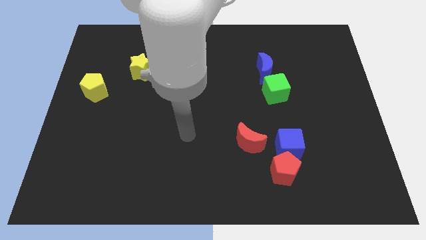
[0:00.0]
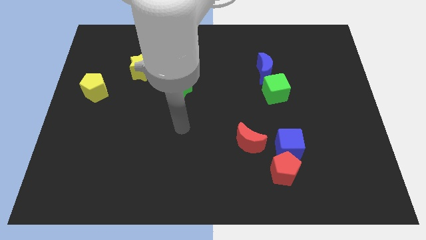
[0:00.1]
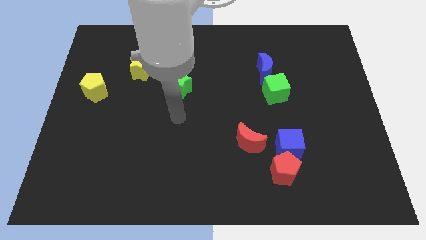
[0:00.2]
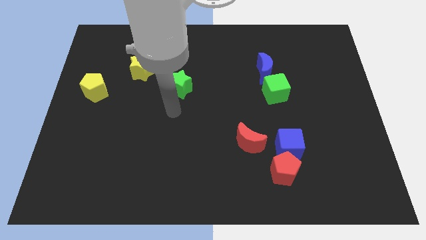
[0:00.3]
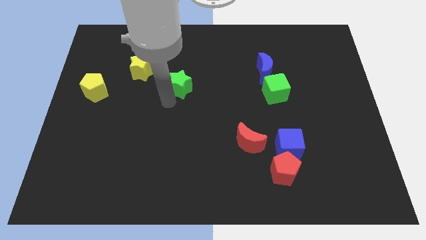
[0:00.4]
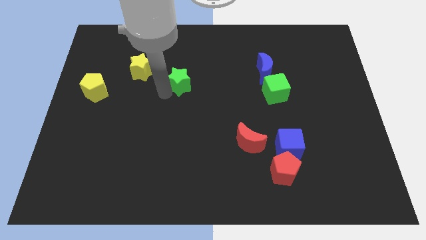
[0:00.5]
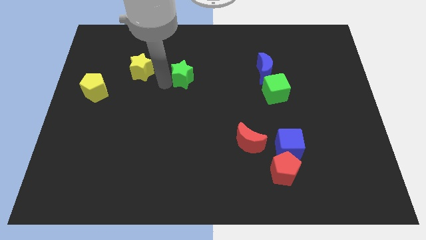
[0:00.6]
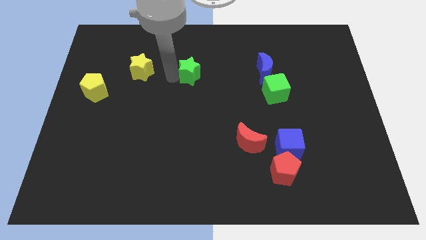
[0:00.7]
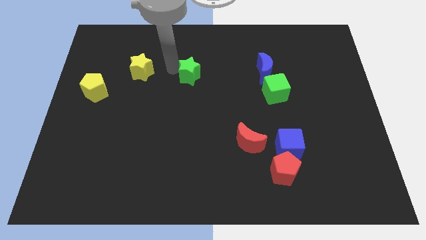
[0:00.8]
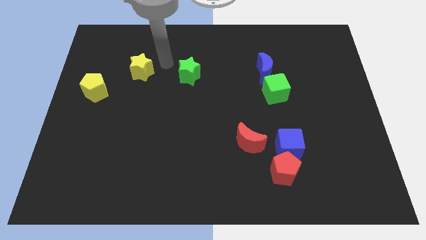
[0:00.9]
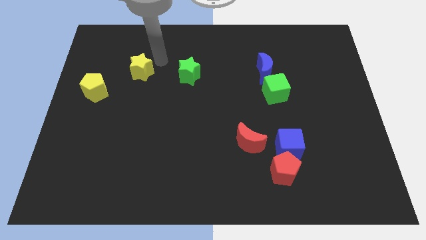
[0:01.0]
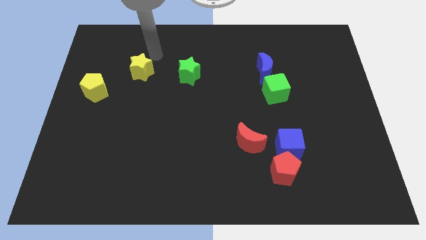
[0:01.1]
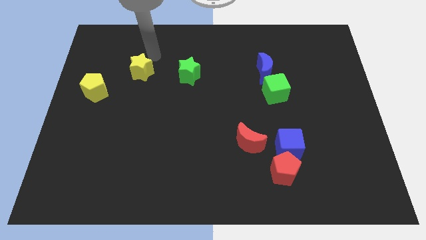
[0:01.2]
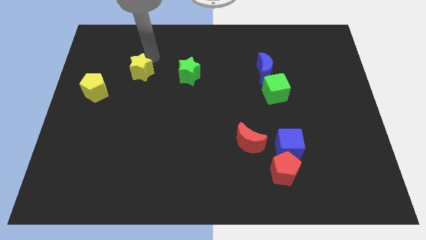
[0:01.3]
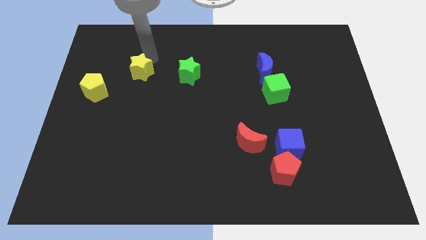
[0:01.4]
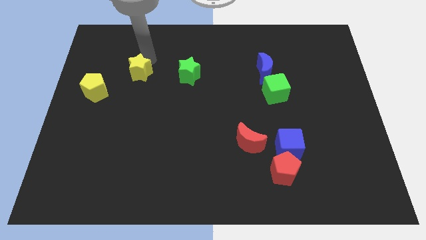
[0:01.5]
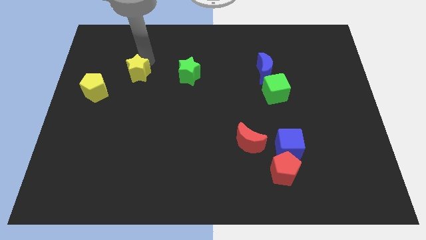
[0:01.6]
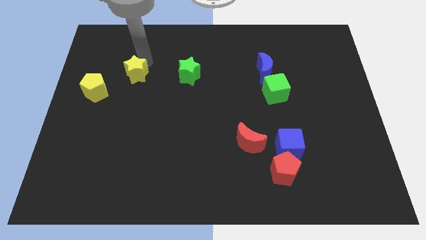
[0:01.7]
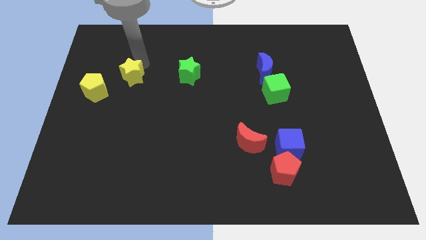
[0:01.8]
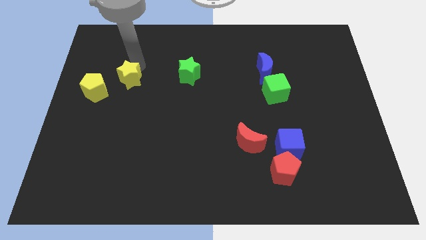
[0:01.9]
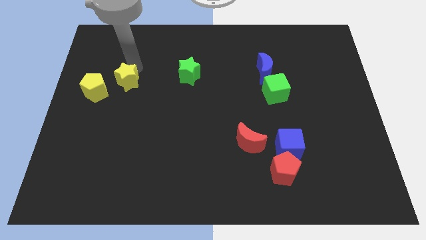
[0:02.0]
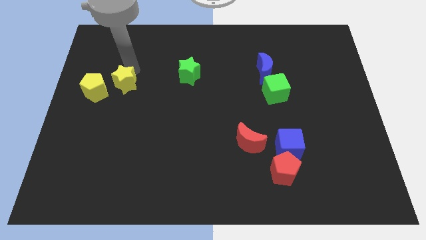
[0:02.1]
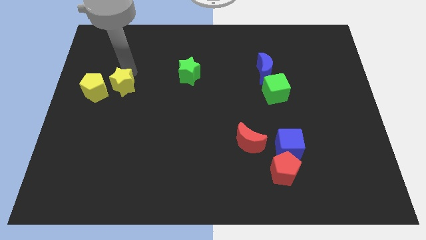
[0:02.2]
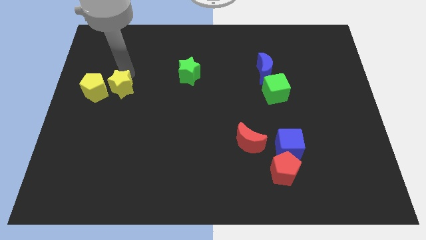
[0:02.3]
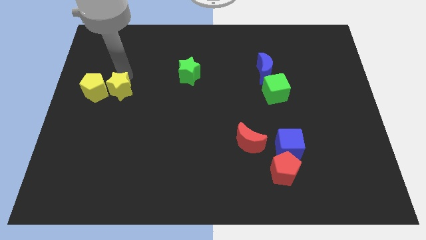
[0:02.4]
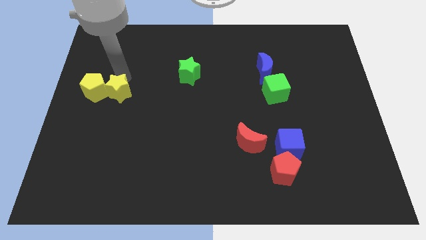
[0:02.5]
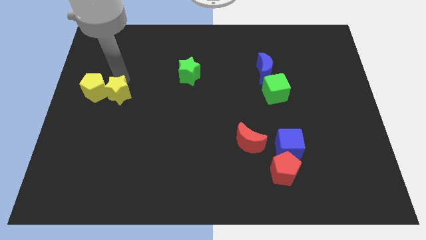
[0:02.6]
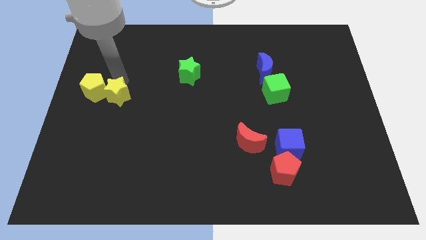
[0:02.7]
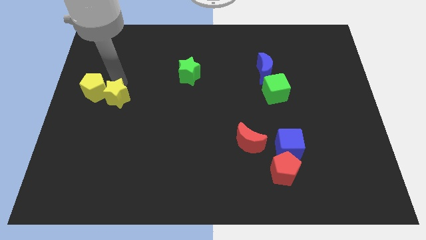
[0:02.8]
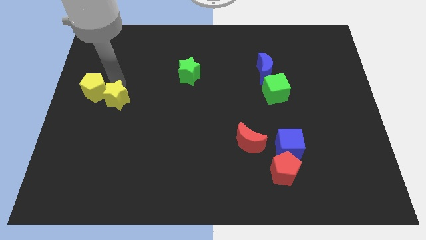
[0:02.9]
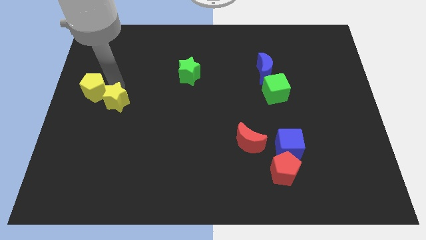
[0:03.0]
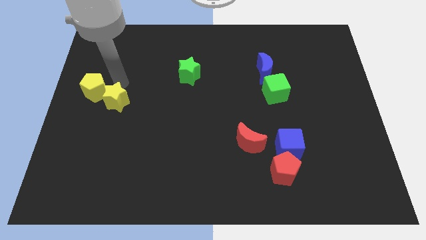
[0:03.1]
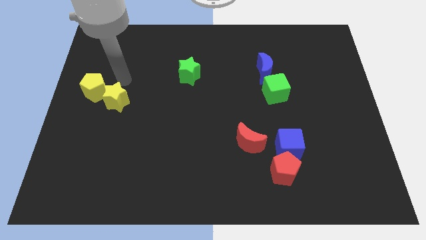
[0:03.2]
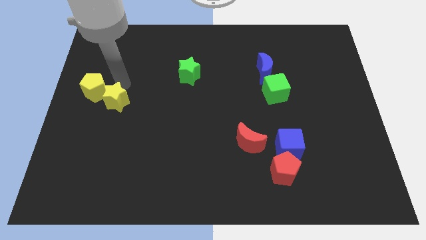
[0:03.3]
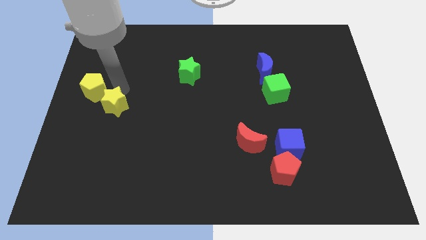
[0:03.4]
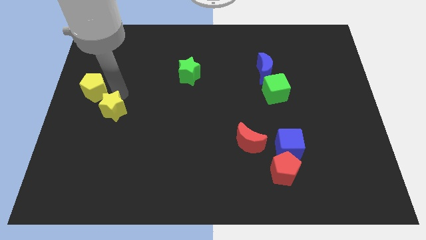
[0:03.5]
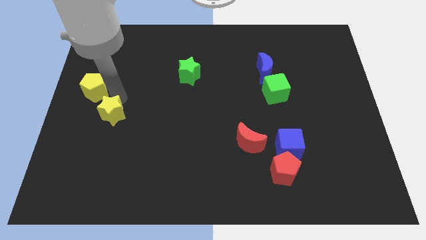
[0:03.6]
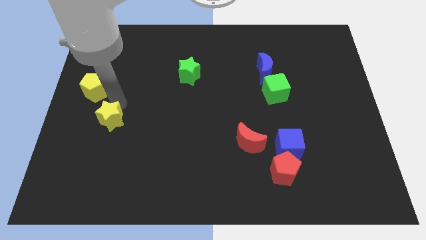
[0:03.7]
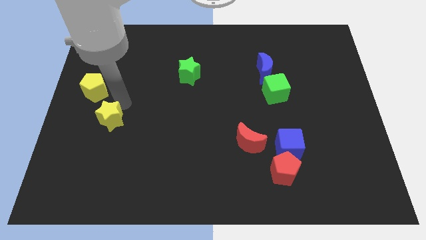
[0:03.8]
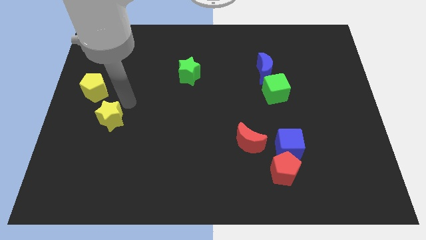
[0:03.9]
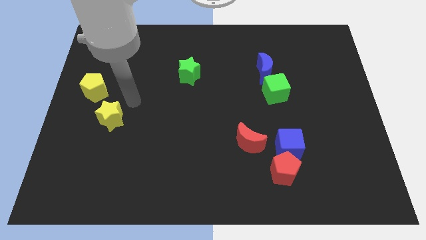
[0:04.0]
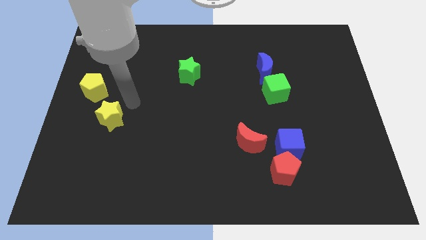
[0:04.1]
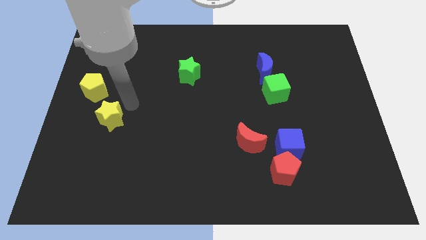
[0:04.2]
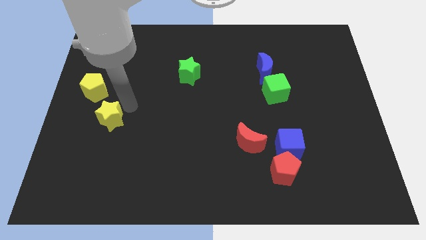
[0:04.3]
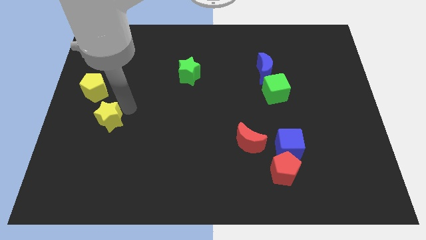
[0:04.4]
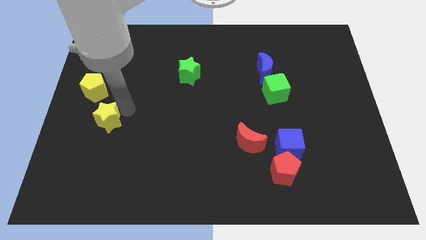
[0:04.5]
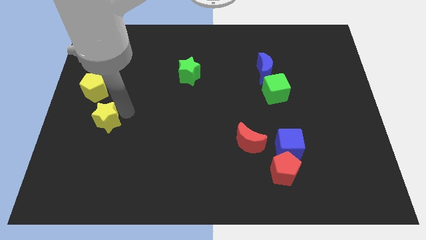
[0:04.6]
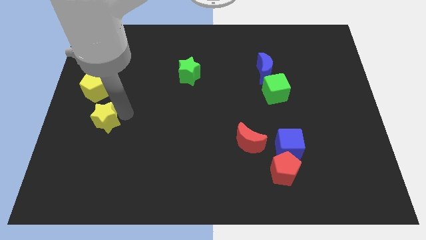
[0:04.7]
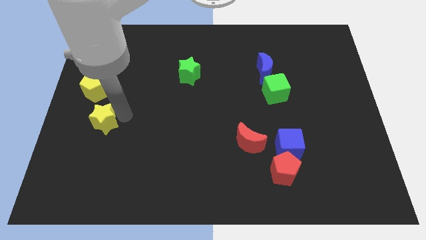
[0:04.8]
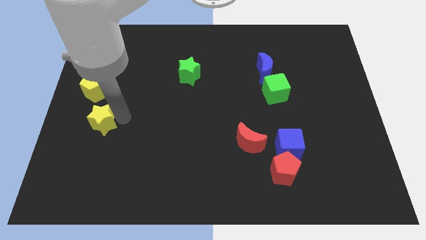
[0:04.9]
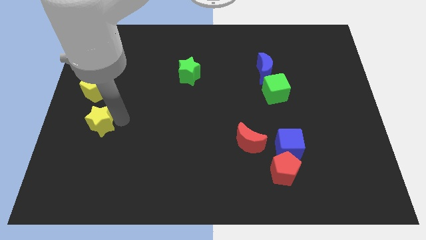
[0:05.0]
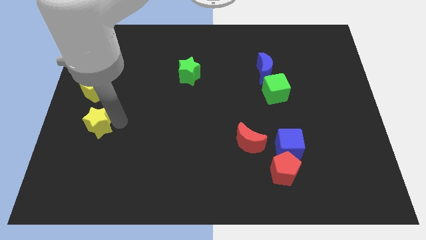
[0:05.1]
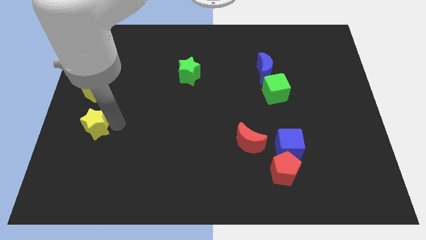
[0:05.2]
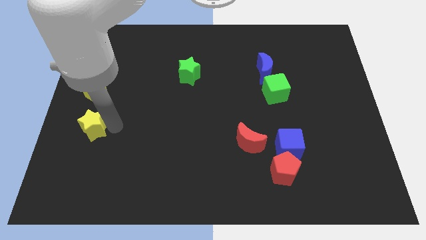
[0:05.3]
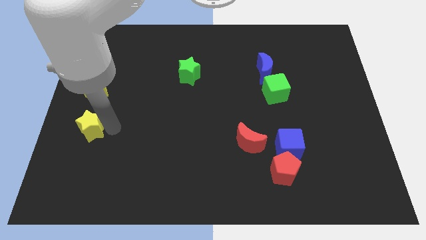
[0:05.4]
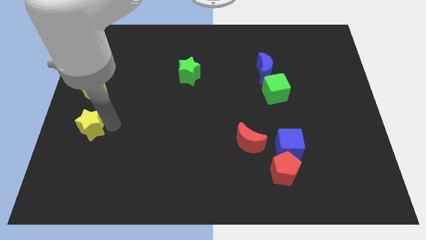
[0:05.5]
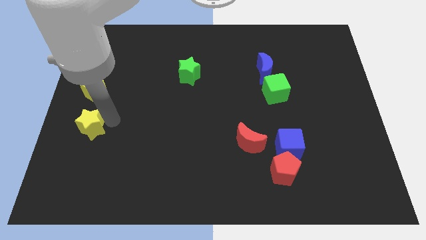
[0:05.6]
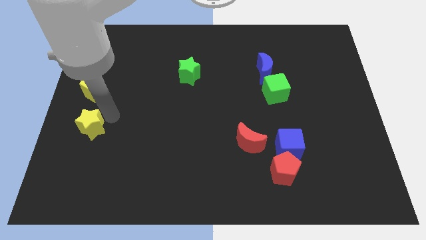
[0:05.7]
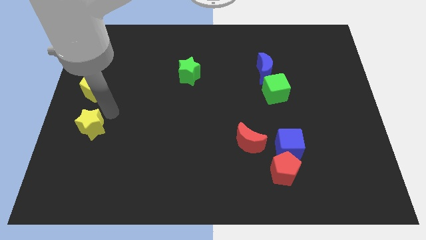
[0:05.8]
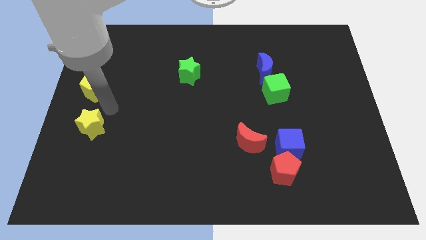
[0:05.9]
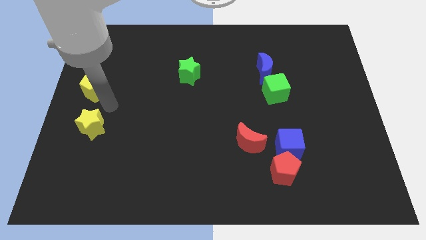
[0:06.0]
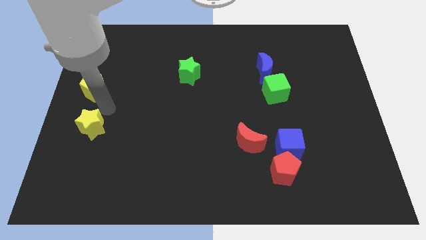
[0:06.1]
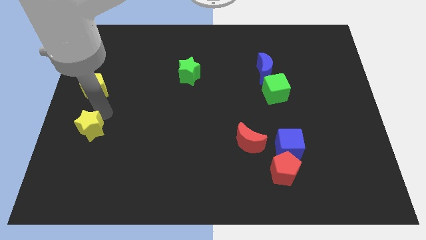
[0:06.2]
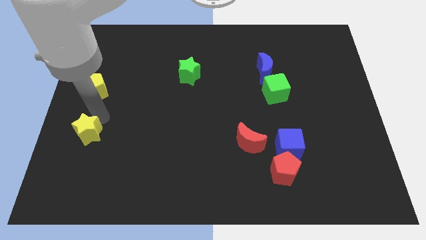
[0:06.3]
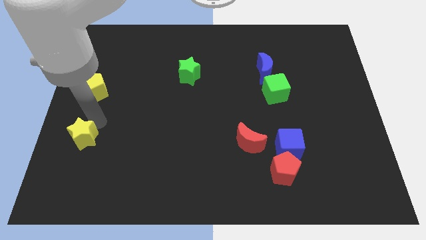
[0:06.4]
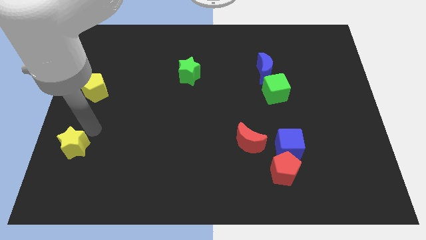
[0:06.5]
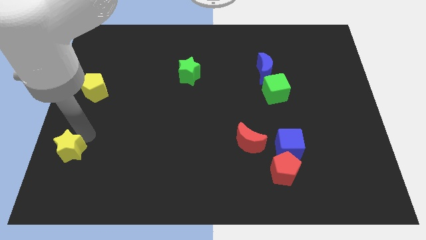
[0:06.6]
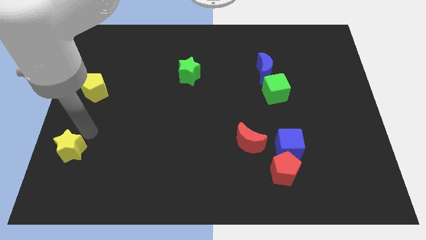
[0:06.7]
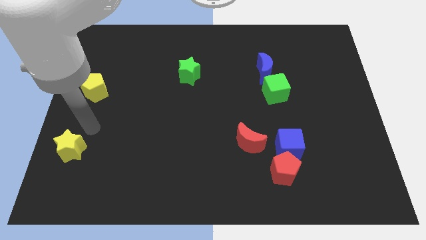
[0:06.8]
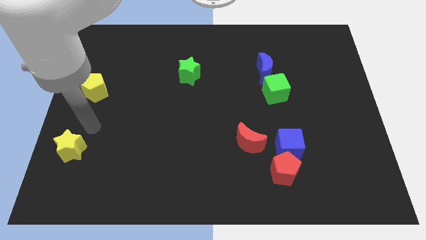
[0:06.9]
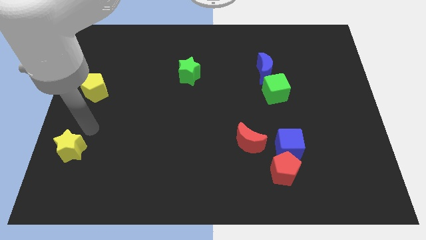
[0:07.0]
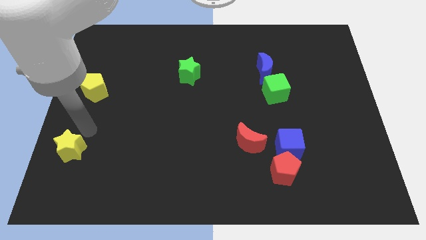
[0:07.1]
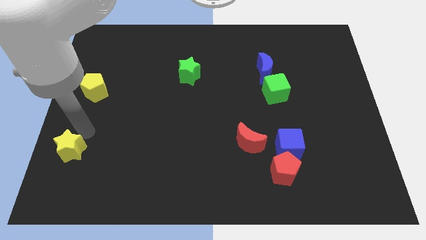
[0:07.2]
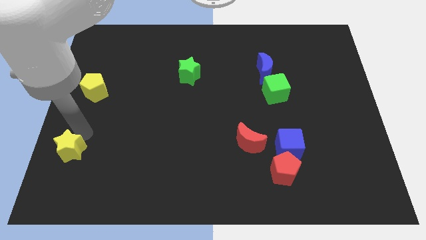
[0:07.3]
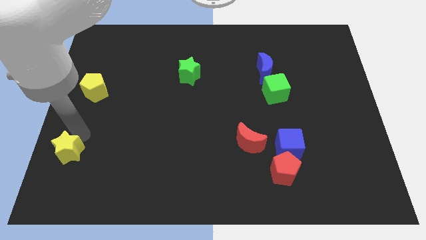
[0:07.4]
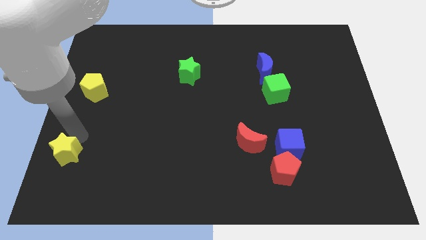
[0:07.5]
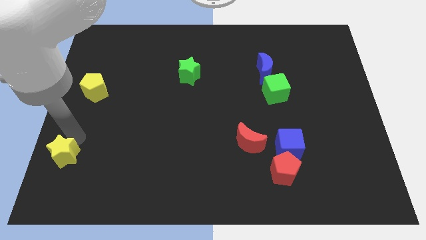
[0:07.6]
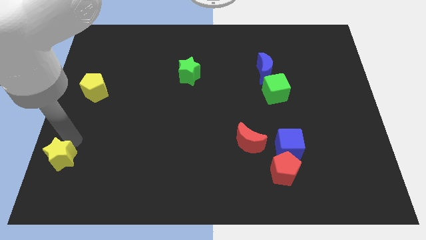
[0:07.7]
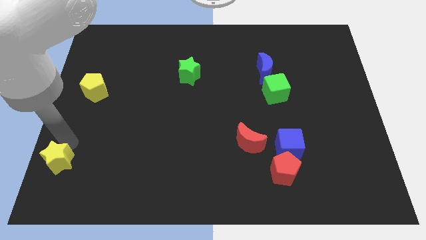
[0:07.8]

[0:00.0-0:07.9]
push the yellow star to the bottom left corner
